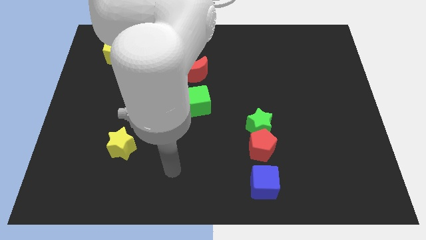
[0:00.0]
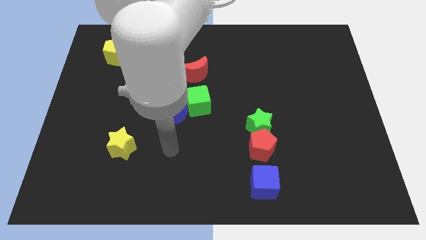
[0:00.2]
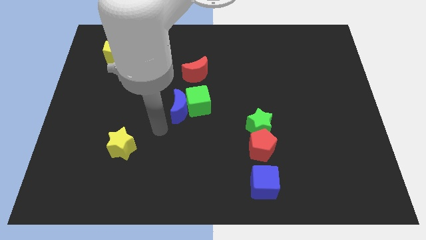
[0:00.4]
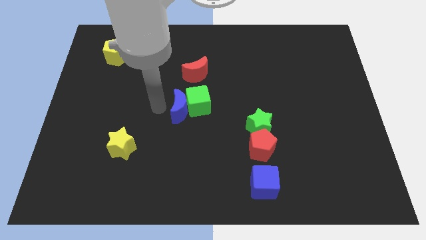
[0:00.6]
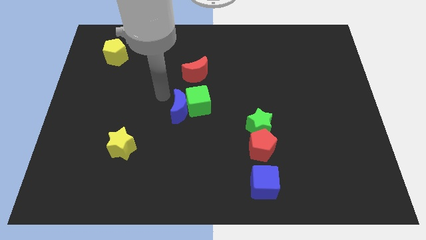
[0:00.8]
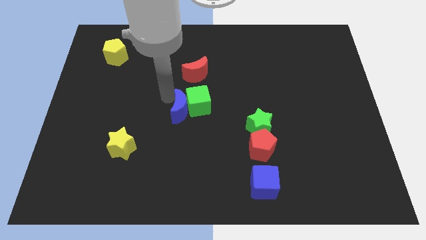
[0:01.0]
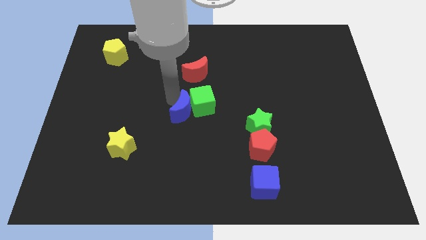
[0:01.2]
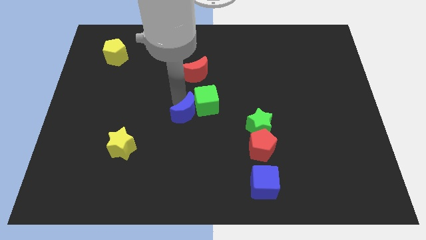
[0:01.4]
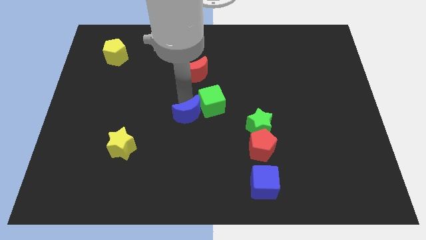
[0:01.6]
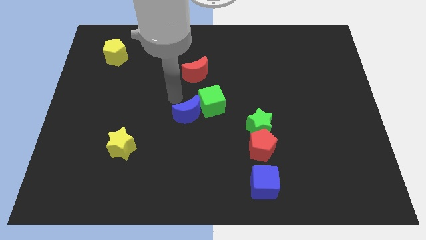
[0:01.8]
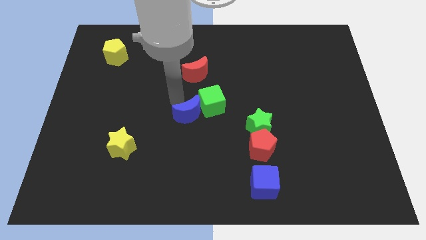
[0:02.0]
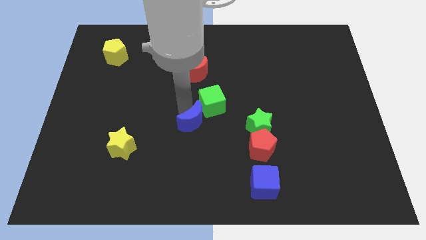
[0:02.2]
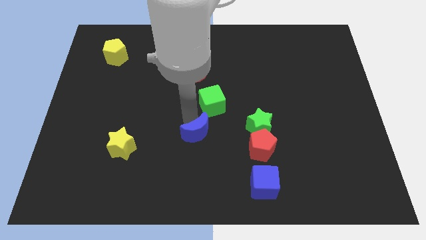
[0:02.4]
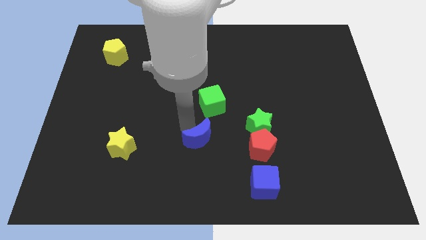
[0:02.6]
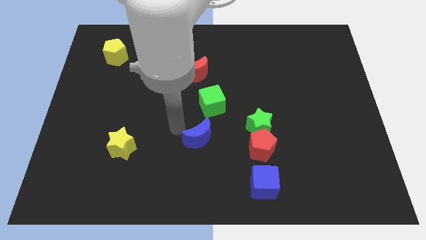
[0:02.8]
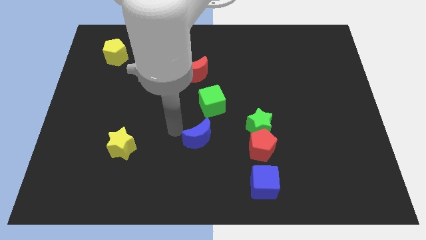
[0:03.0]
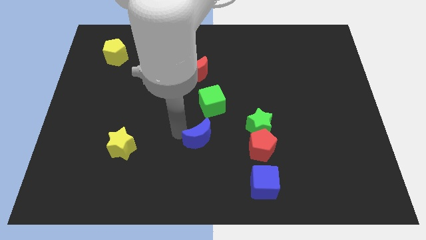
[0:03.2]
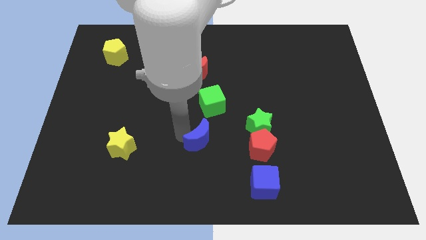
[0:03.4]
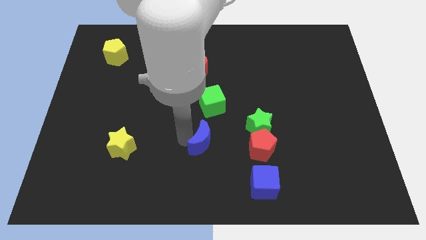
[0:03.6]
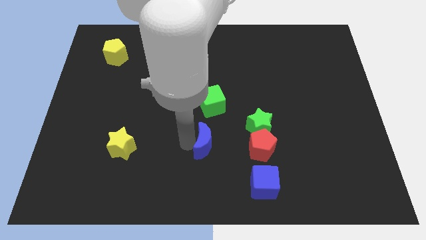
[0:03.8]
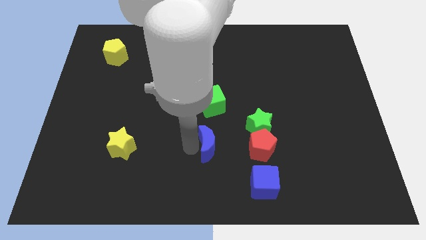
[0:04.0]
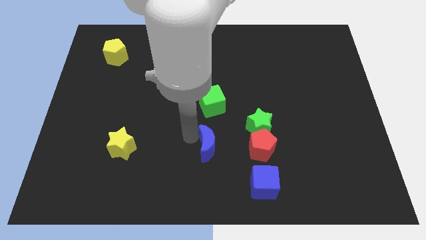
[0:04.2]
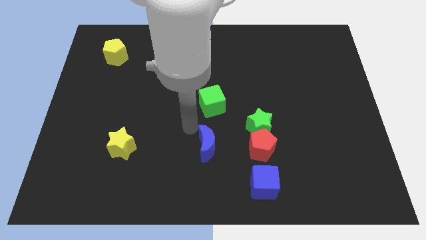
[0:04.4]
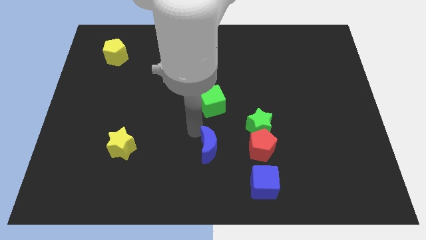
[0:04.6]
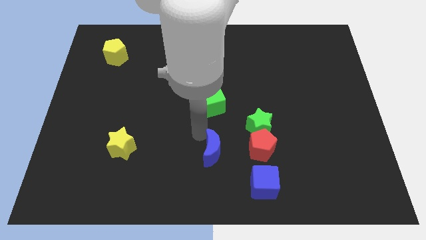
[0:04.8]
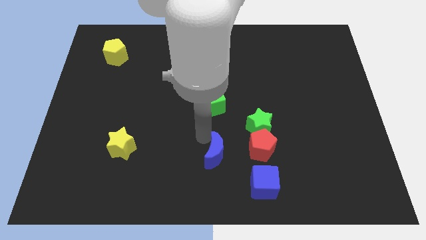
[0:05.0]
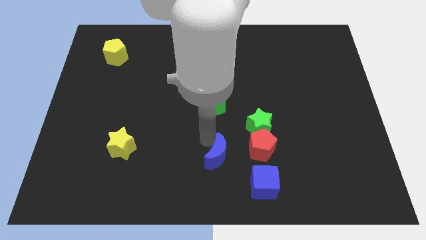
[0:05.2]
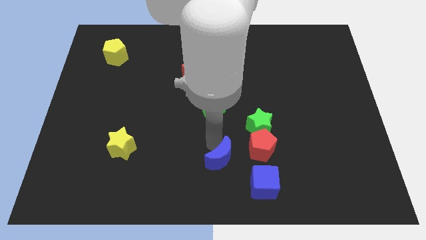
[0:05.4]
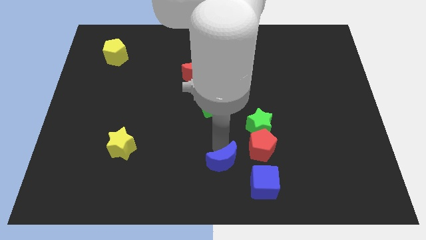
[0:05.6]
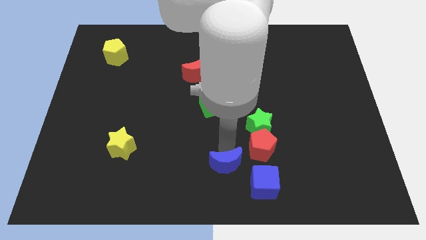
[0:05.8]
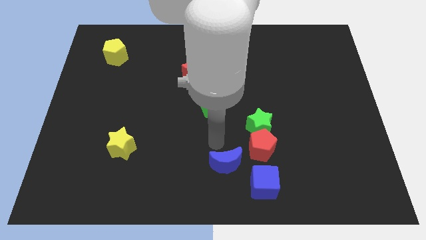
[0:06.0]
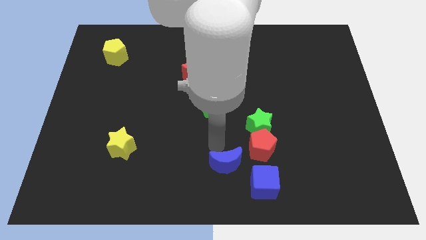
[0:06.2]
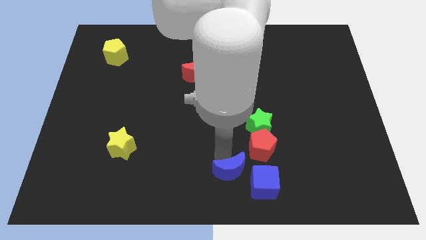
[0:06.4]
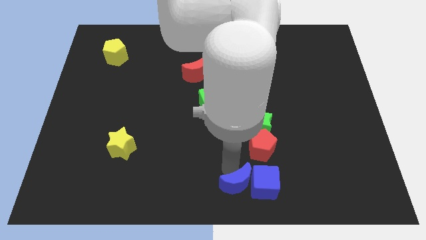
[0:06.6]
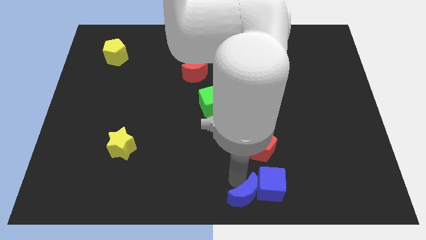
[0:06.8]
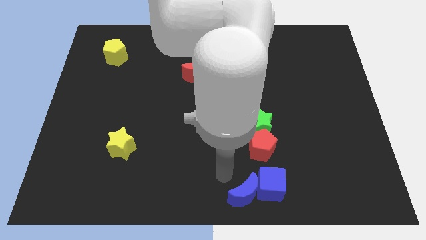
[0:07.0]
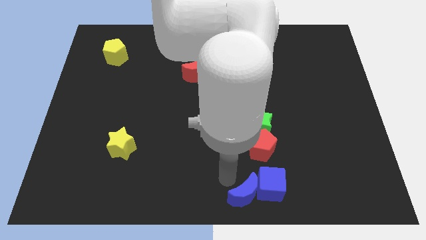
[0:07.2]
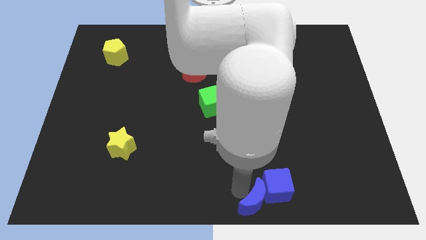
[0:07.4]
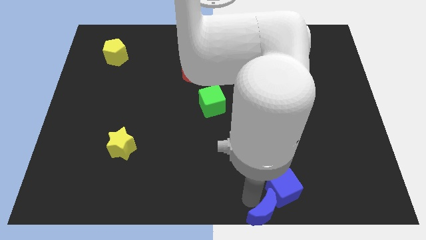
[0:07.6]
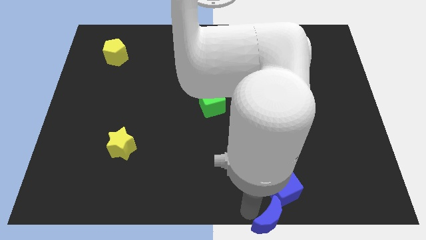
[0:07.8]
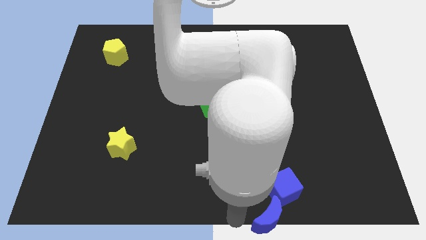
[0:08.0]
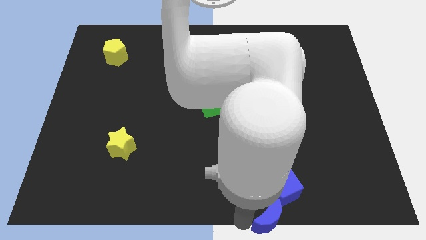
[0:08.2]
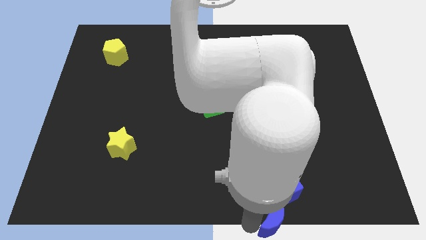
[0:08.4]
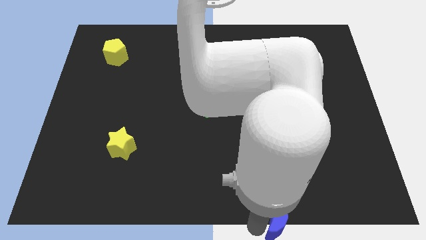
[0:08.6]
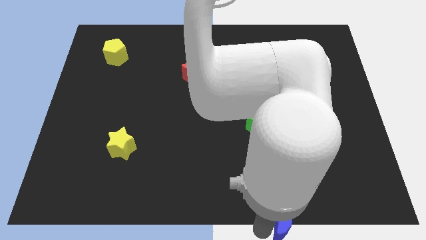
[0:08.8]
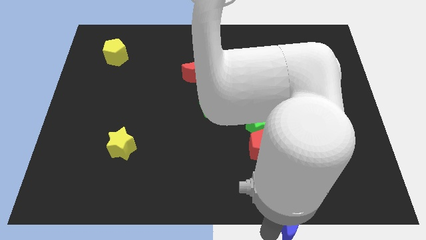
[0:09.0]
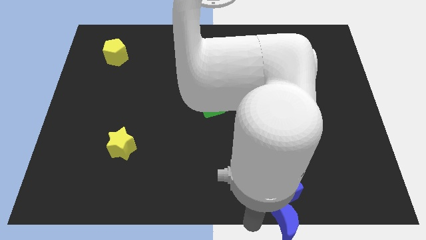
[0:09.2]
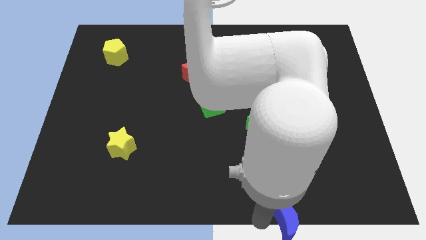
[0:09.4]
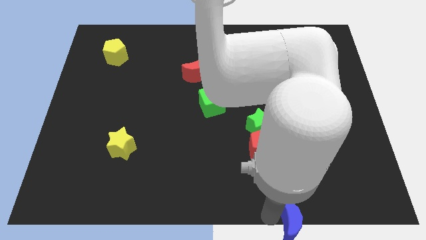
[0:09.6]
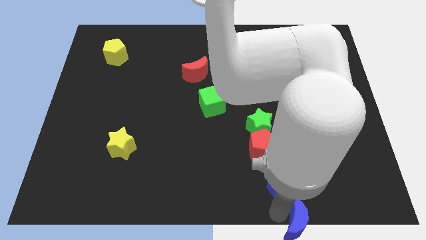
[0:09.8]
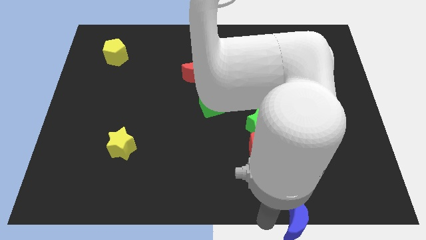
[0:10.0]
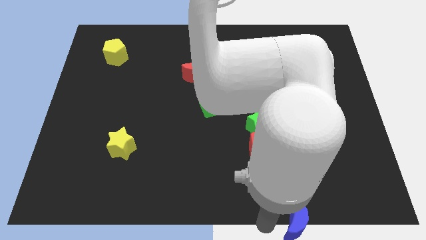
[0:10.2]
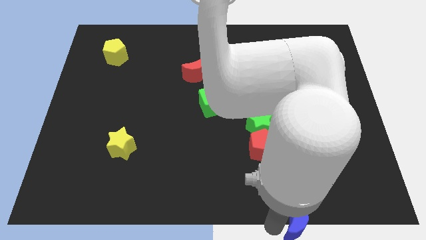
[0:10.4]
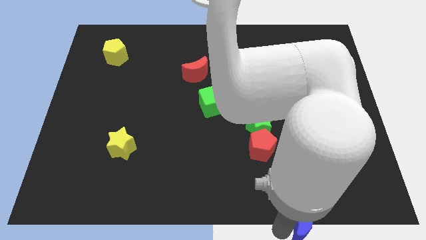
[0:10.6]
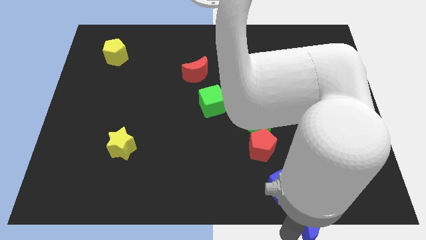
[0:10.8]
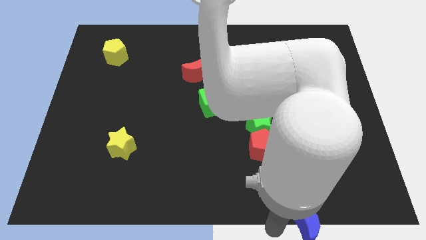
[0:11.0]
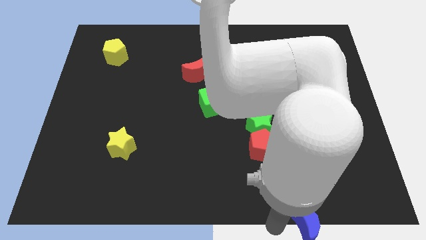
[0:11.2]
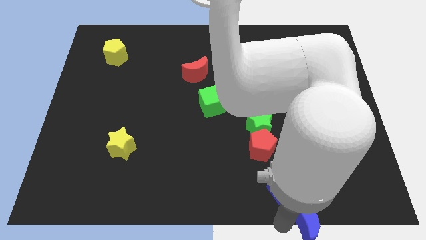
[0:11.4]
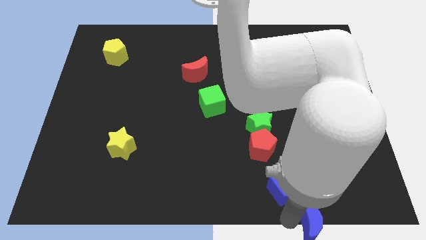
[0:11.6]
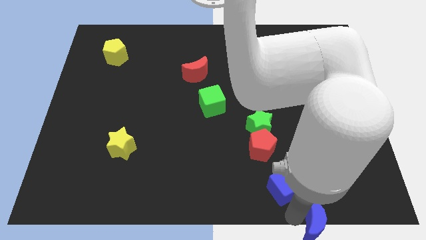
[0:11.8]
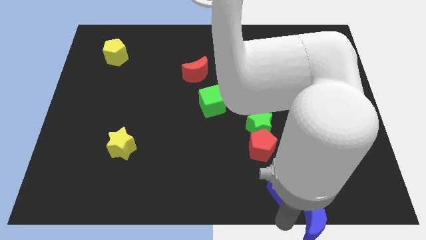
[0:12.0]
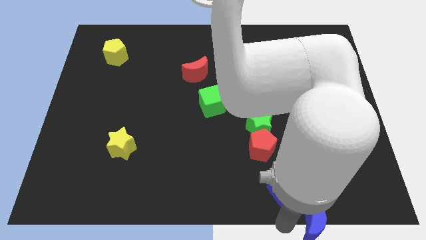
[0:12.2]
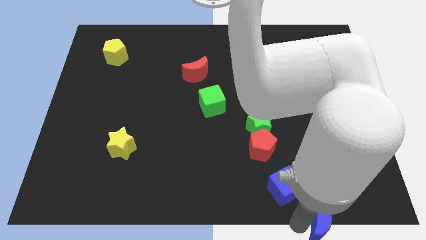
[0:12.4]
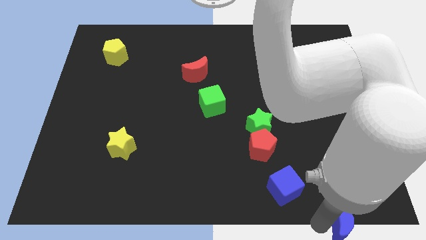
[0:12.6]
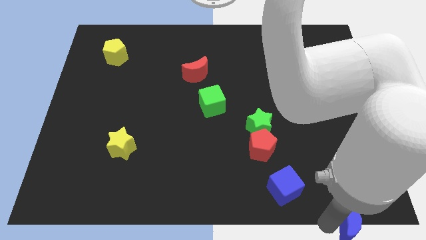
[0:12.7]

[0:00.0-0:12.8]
move the blue moon to the lower right corner
